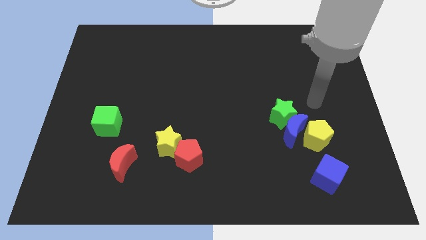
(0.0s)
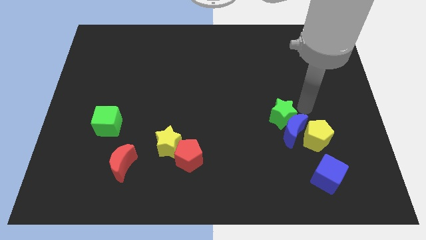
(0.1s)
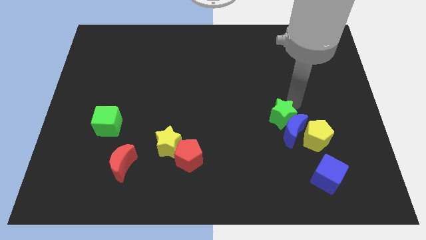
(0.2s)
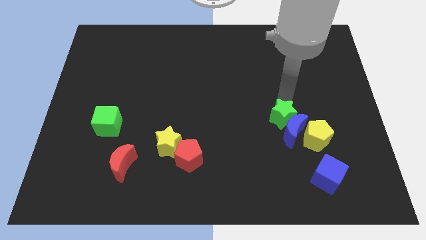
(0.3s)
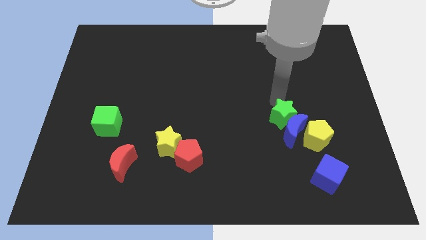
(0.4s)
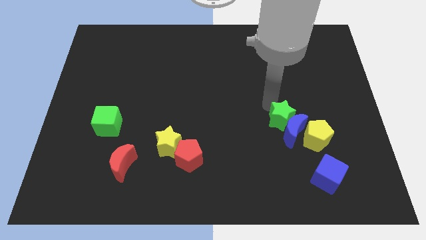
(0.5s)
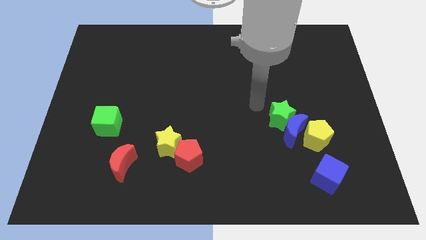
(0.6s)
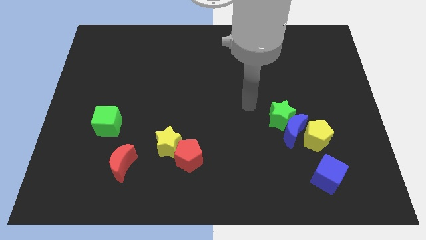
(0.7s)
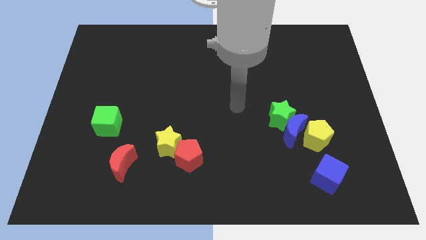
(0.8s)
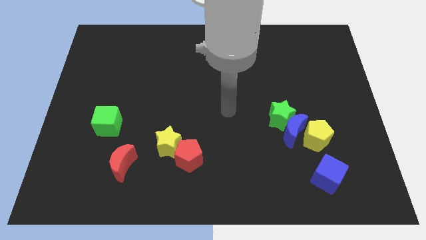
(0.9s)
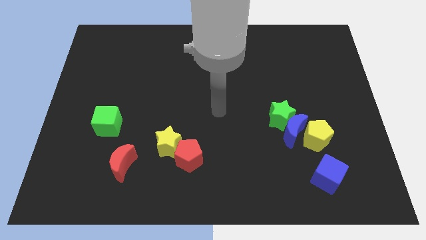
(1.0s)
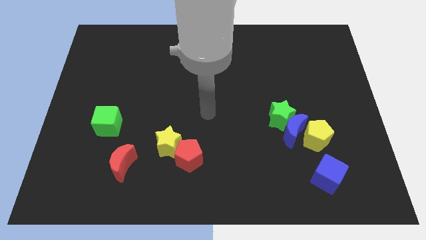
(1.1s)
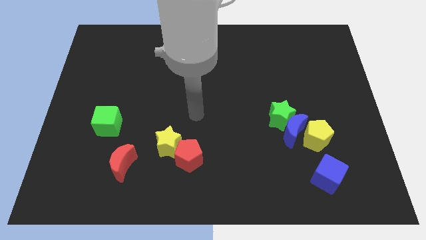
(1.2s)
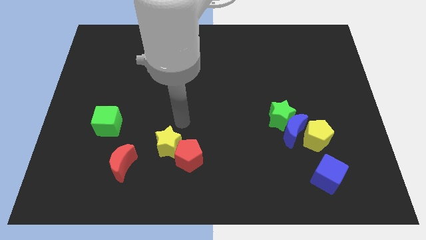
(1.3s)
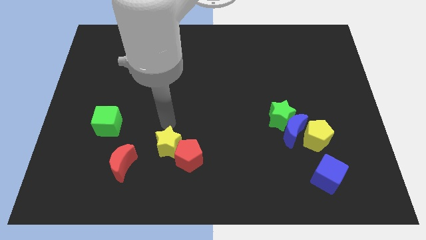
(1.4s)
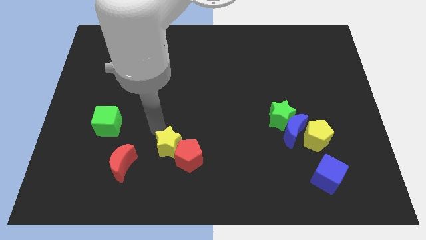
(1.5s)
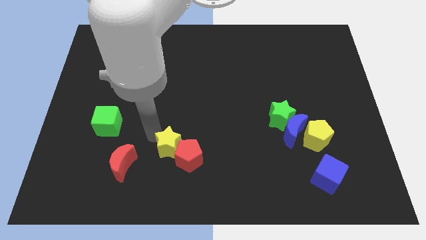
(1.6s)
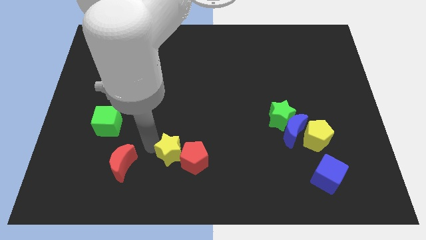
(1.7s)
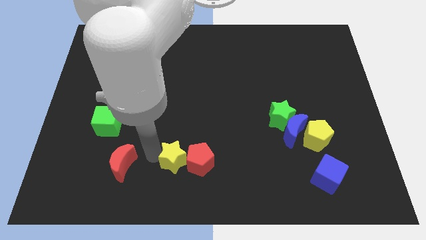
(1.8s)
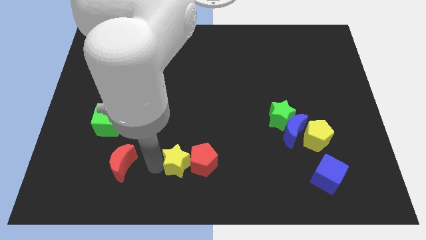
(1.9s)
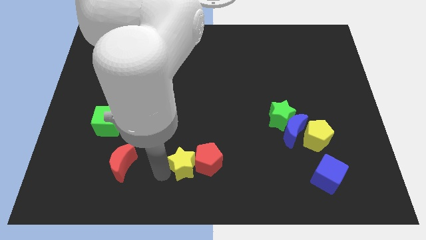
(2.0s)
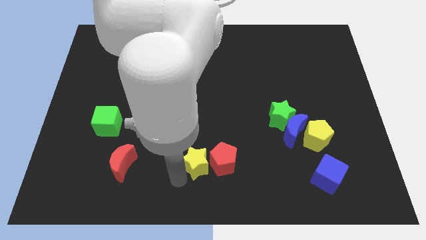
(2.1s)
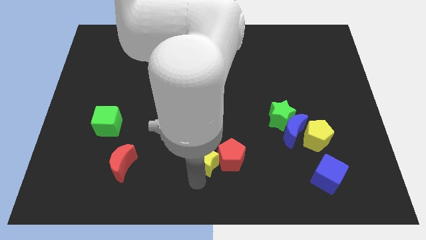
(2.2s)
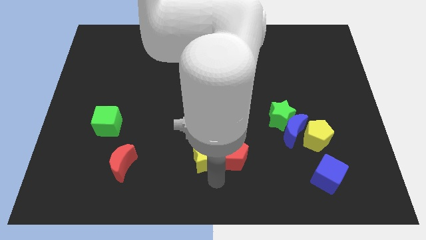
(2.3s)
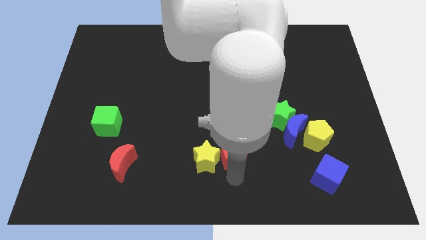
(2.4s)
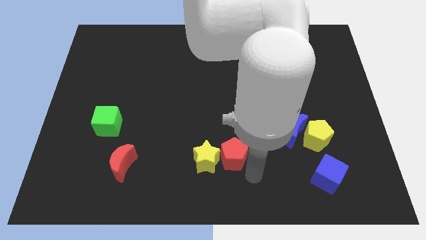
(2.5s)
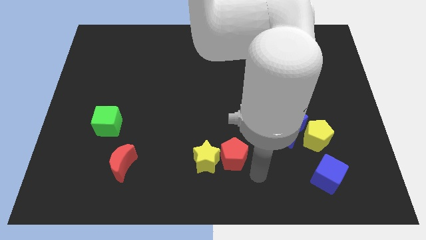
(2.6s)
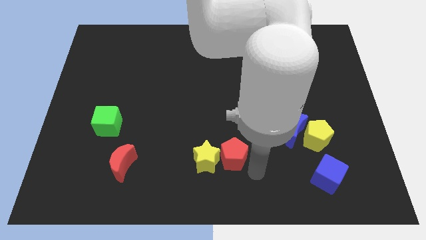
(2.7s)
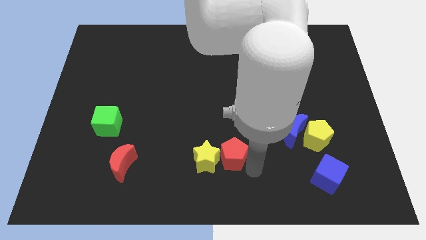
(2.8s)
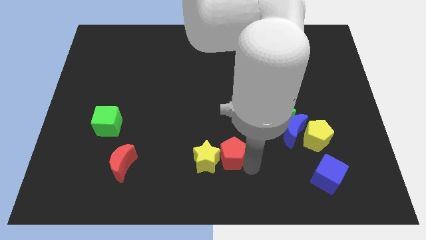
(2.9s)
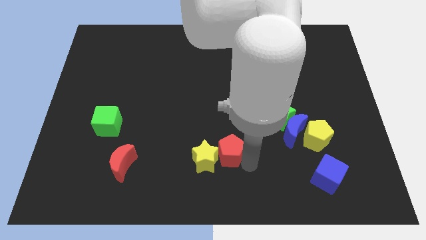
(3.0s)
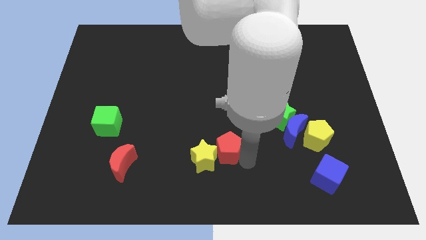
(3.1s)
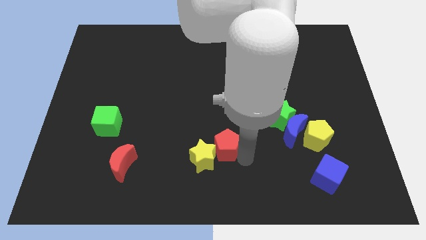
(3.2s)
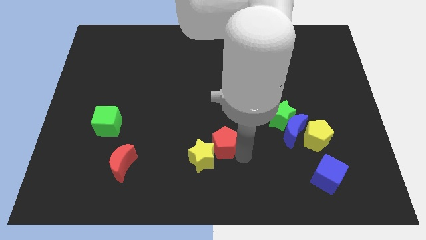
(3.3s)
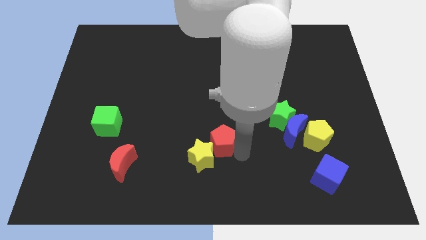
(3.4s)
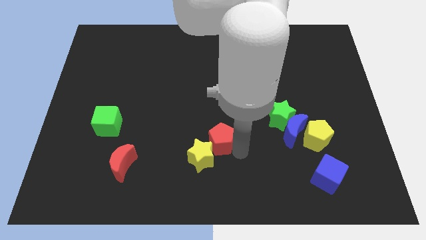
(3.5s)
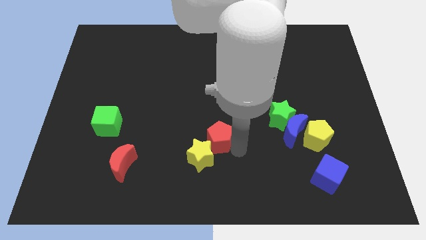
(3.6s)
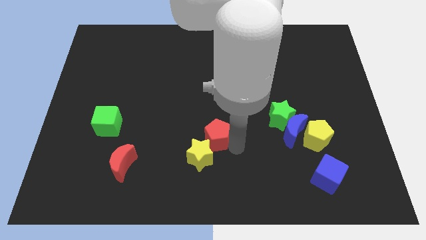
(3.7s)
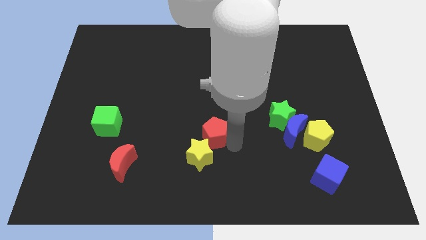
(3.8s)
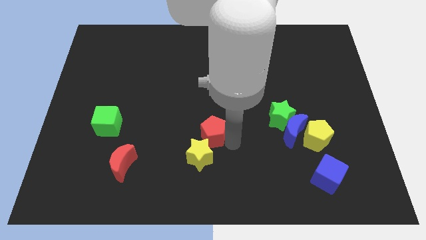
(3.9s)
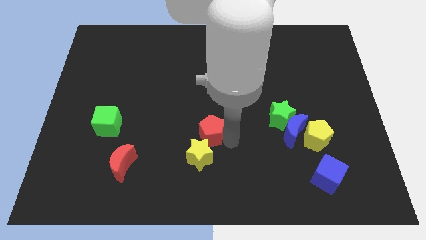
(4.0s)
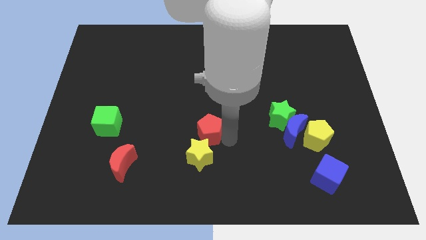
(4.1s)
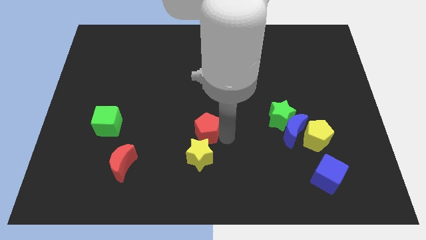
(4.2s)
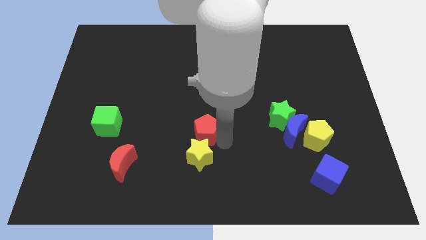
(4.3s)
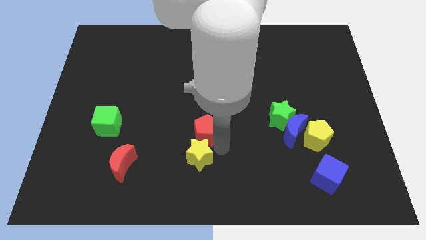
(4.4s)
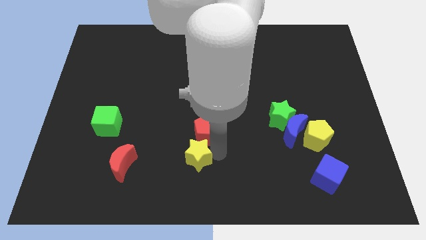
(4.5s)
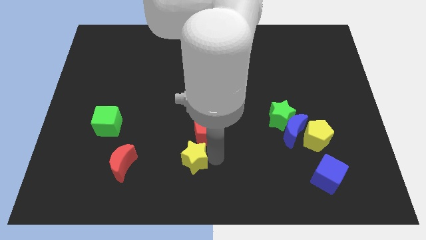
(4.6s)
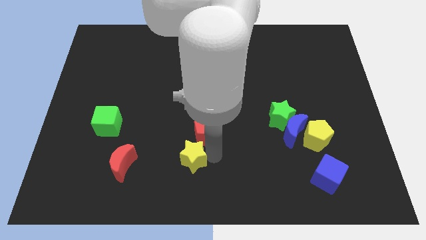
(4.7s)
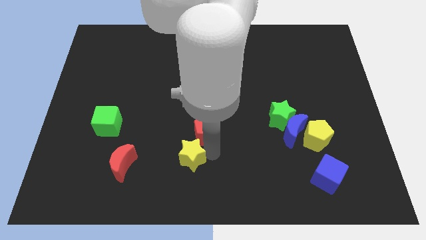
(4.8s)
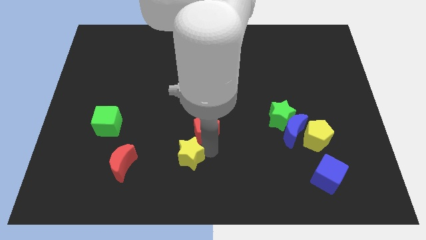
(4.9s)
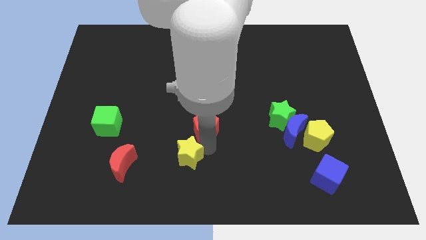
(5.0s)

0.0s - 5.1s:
move the red pentagon up somewhat

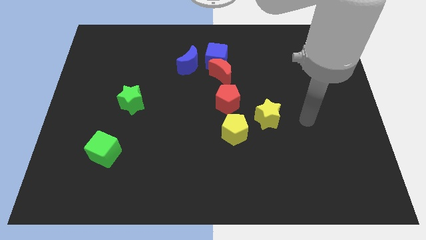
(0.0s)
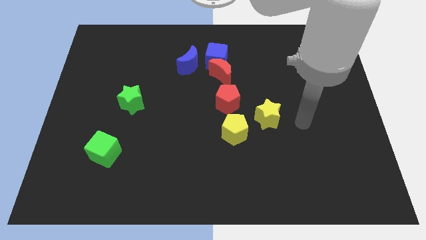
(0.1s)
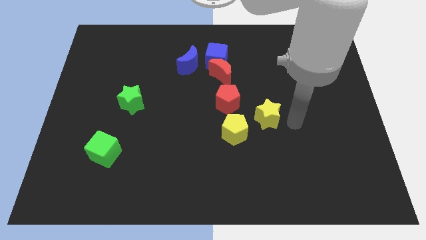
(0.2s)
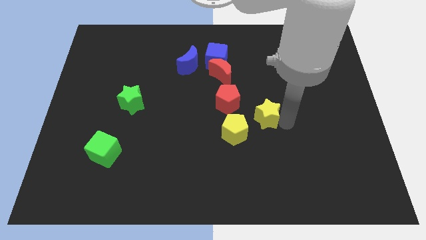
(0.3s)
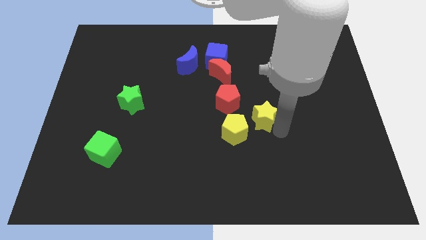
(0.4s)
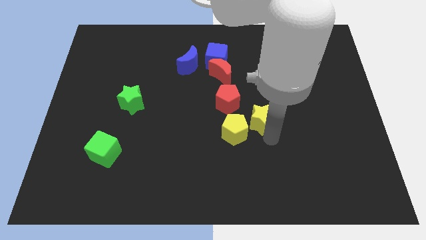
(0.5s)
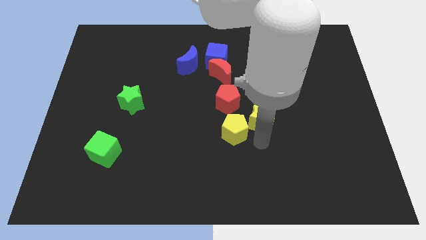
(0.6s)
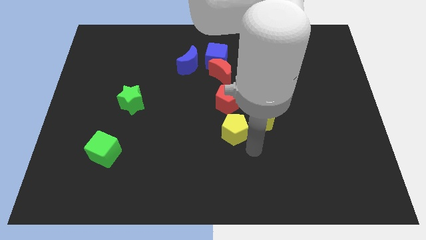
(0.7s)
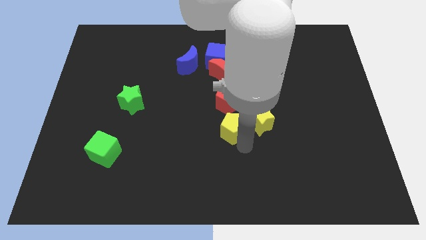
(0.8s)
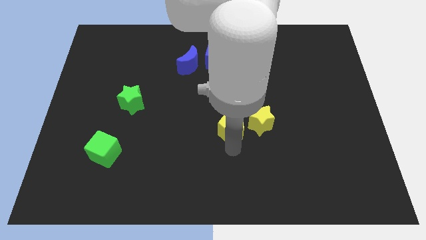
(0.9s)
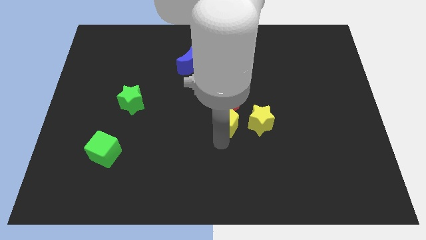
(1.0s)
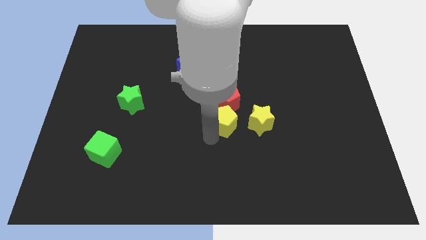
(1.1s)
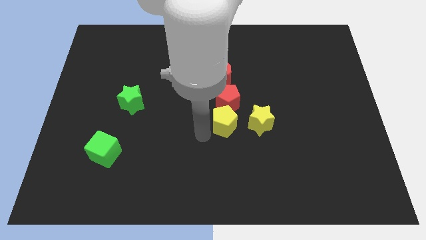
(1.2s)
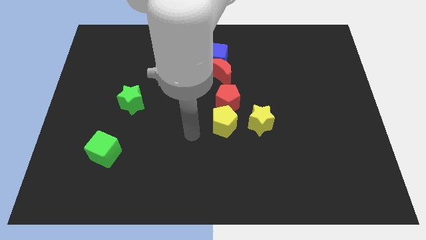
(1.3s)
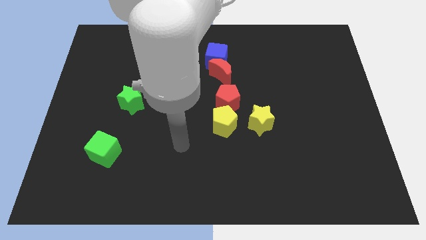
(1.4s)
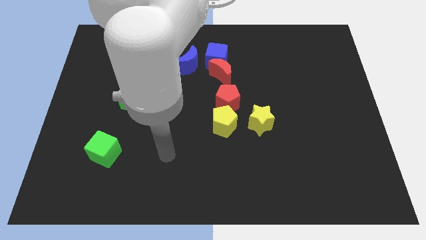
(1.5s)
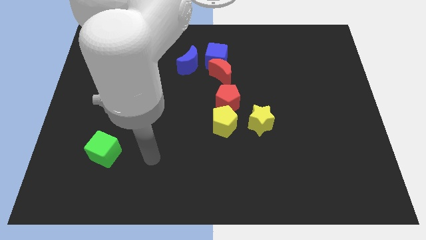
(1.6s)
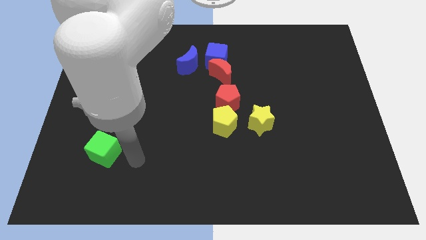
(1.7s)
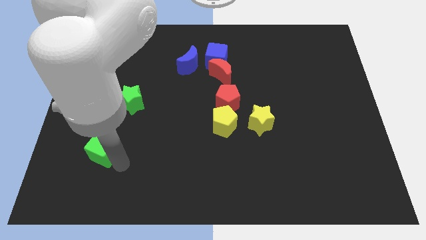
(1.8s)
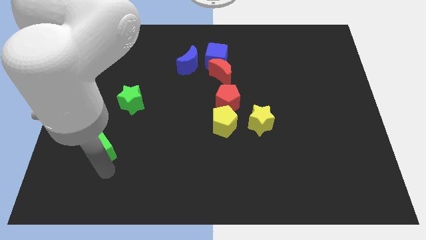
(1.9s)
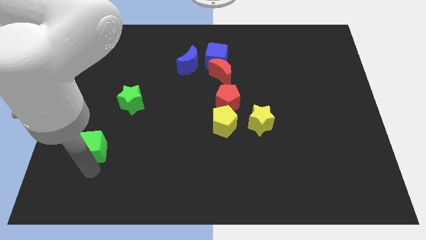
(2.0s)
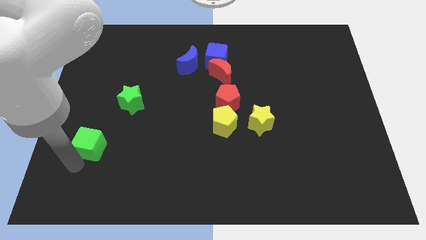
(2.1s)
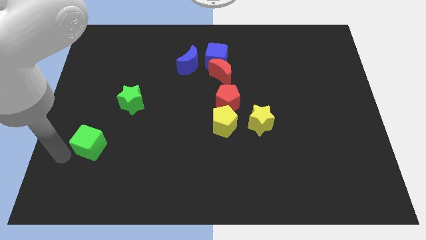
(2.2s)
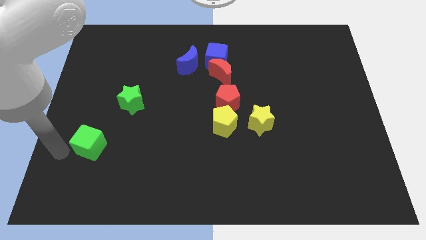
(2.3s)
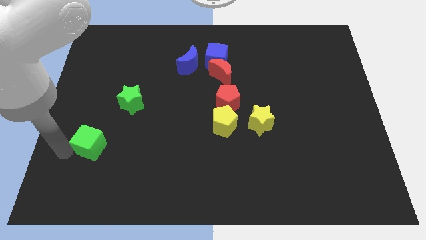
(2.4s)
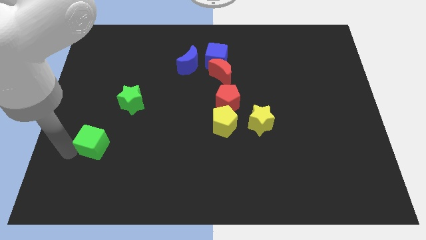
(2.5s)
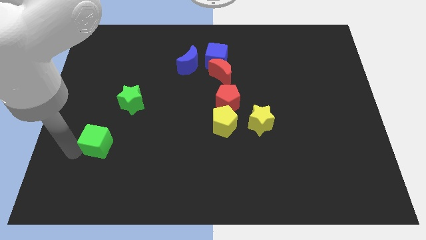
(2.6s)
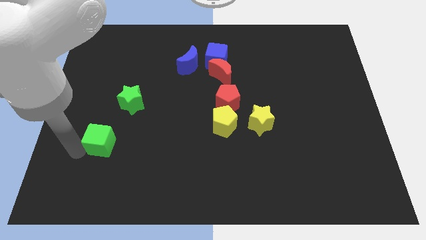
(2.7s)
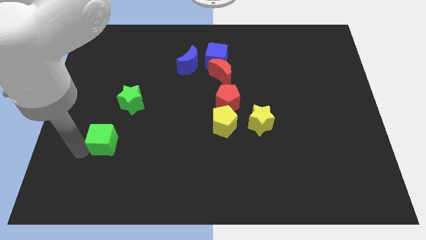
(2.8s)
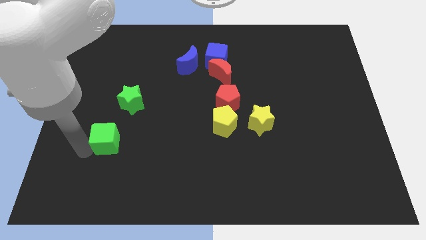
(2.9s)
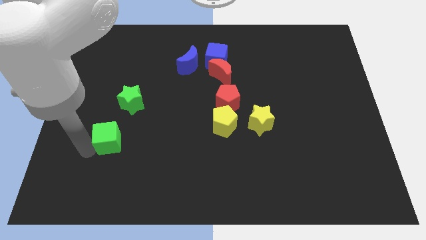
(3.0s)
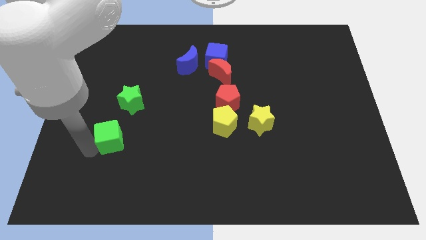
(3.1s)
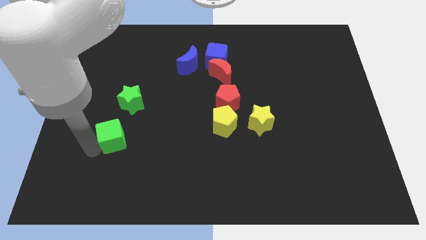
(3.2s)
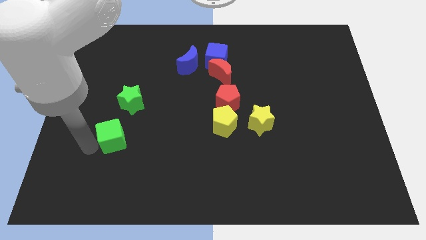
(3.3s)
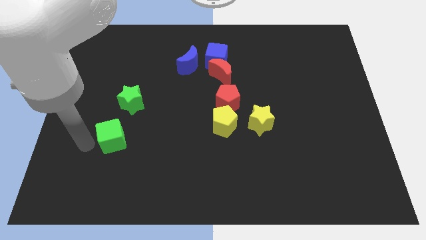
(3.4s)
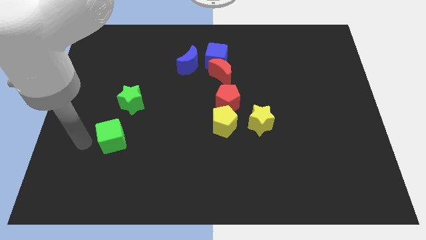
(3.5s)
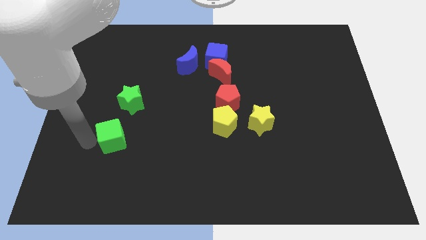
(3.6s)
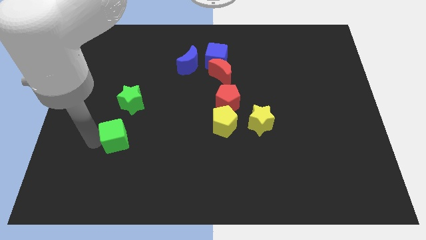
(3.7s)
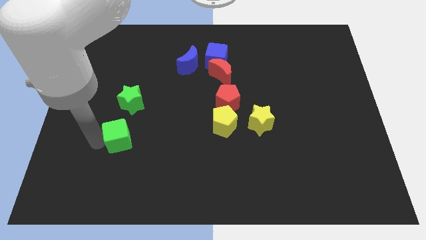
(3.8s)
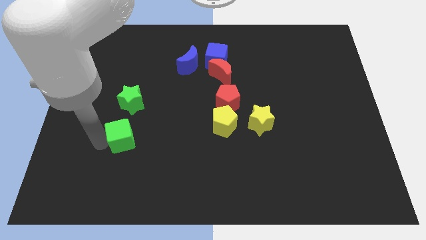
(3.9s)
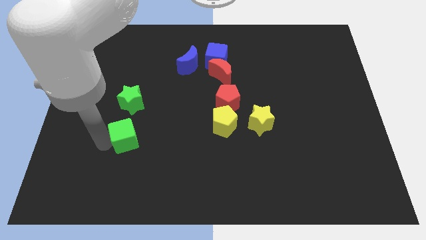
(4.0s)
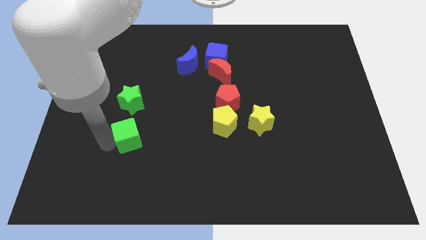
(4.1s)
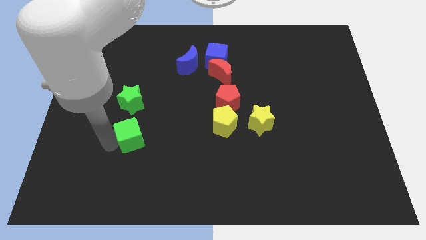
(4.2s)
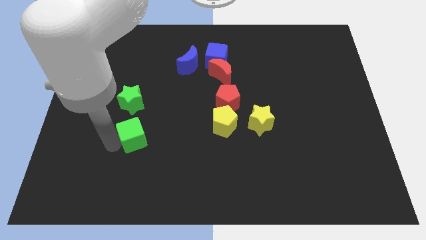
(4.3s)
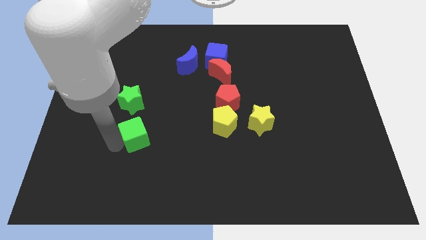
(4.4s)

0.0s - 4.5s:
push the green cube up and then right slightly
